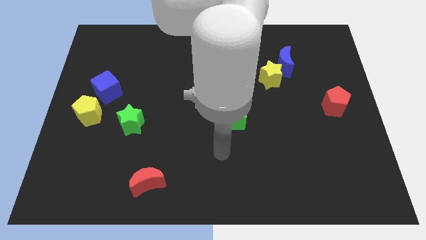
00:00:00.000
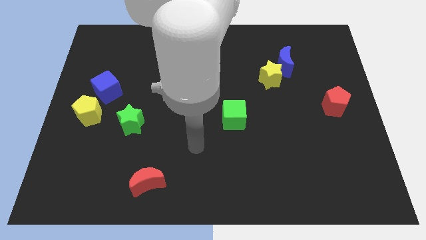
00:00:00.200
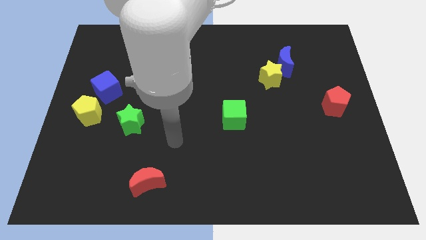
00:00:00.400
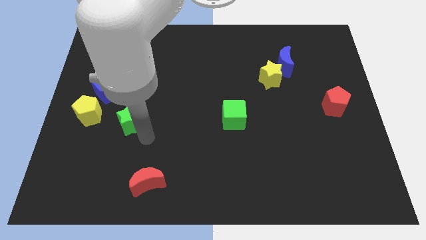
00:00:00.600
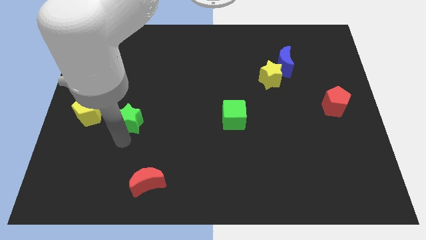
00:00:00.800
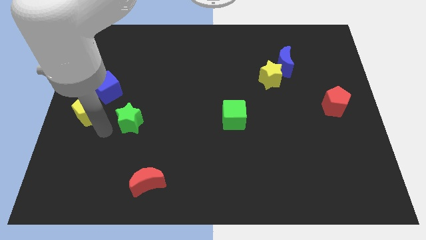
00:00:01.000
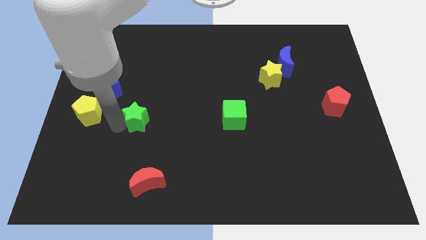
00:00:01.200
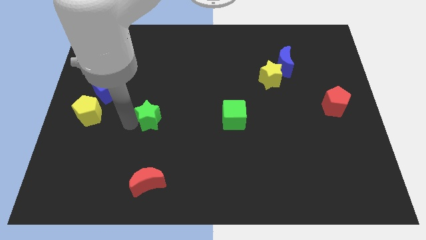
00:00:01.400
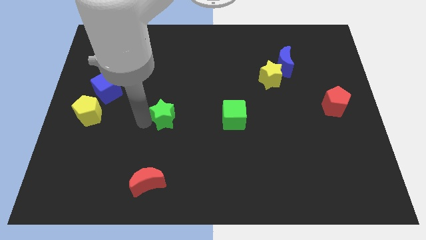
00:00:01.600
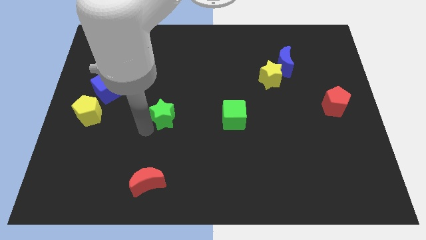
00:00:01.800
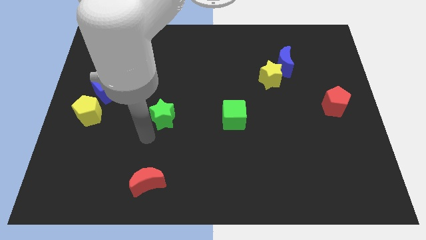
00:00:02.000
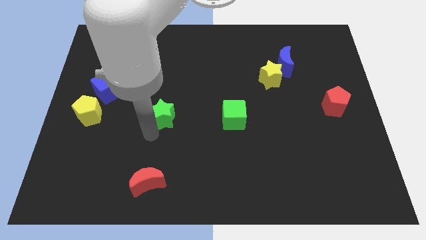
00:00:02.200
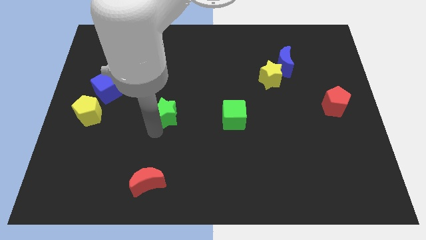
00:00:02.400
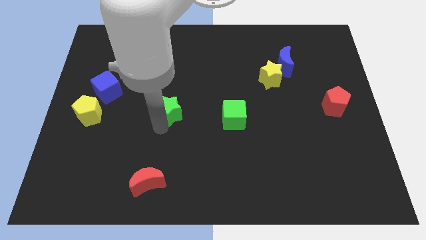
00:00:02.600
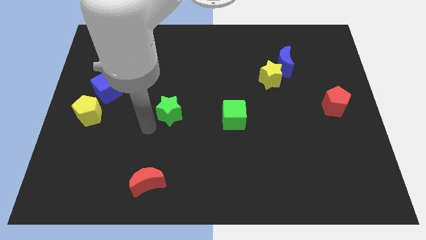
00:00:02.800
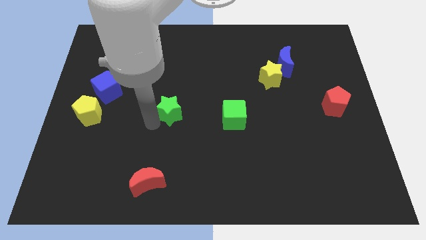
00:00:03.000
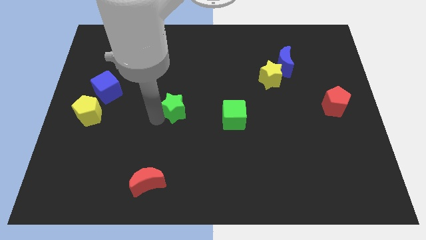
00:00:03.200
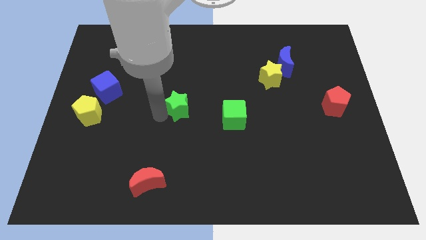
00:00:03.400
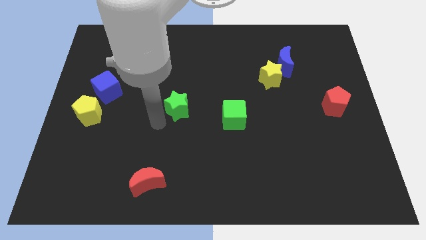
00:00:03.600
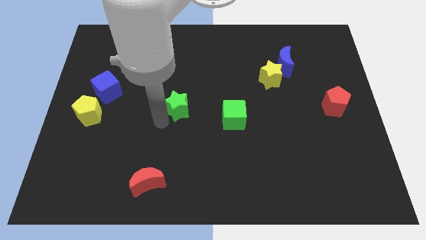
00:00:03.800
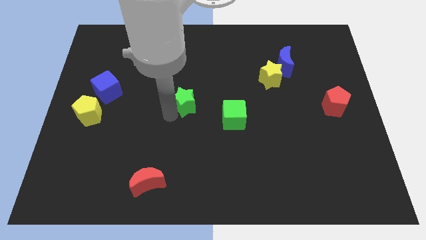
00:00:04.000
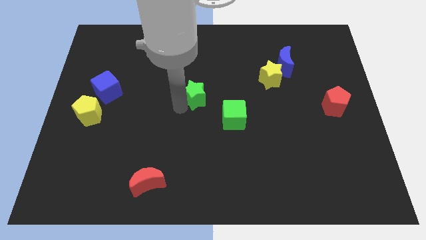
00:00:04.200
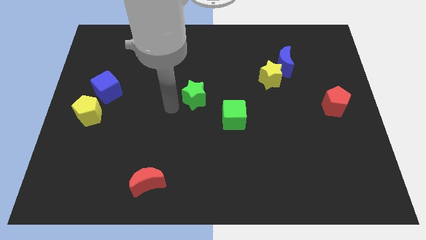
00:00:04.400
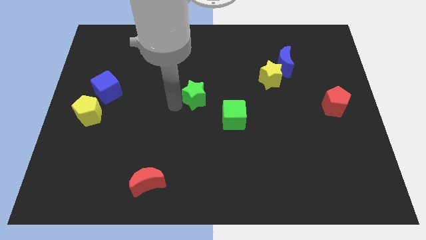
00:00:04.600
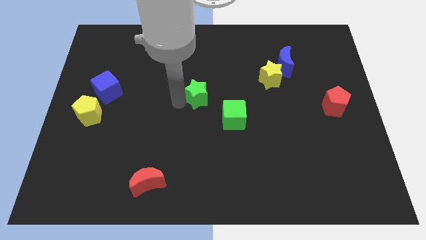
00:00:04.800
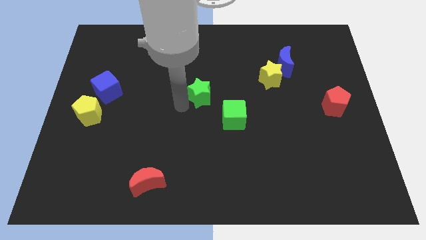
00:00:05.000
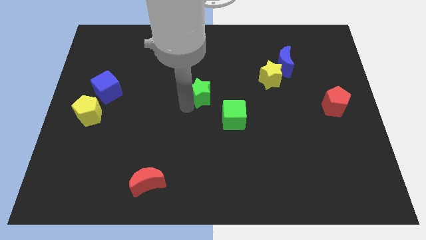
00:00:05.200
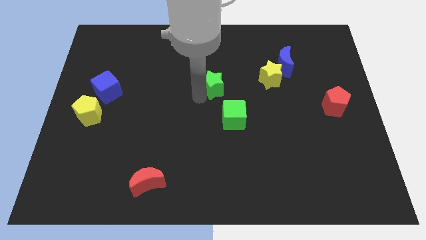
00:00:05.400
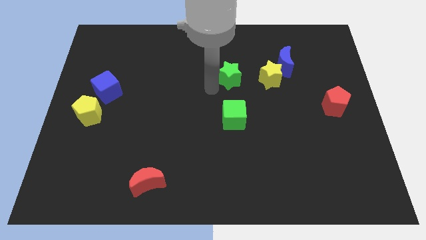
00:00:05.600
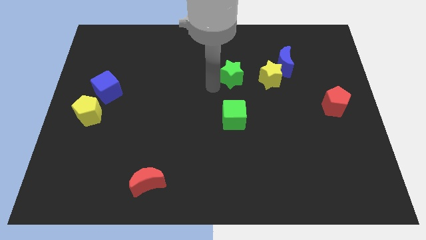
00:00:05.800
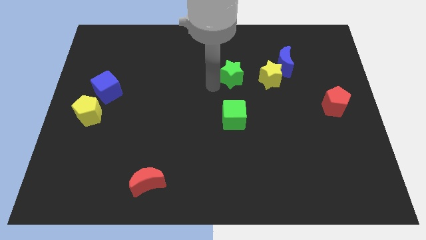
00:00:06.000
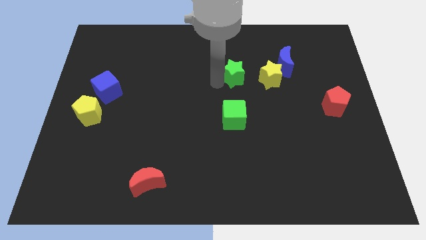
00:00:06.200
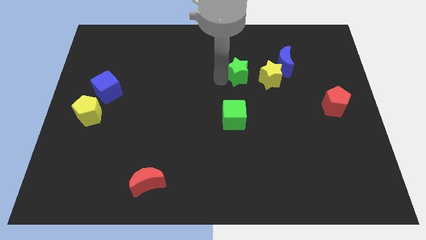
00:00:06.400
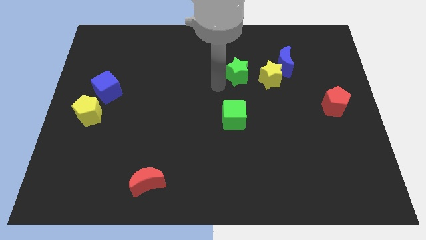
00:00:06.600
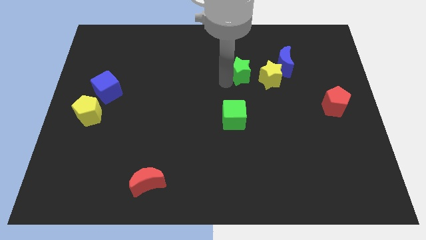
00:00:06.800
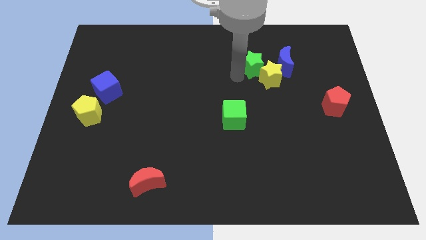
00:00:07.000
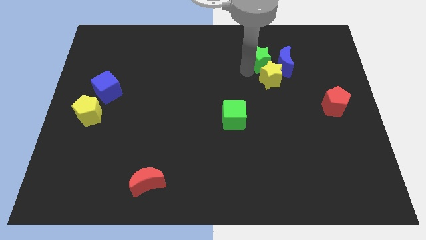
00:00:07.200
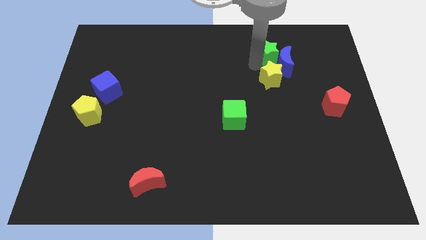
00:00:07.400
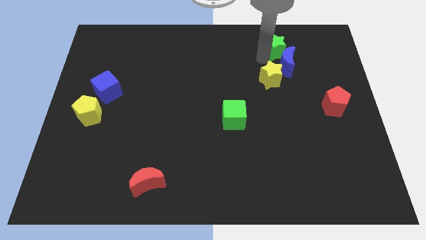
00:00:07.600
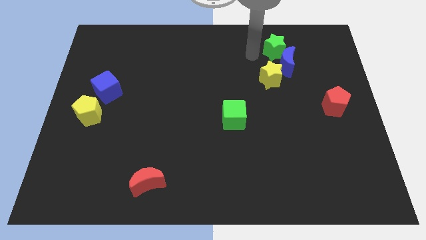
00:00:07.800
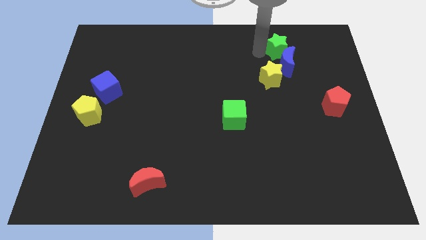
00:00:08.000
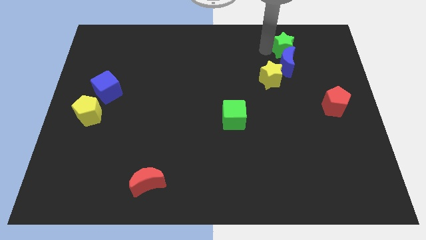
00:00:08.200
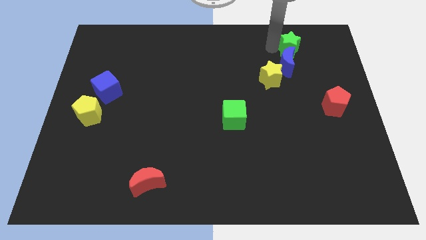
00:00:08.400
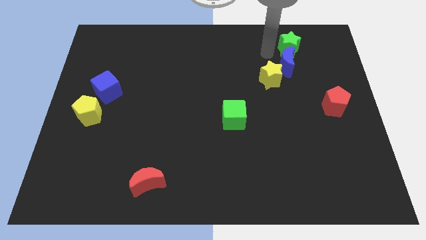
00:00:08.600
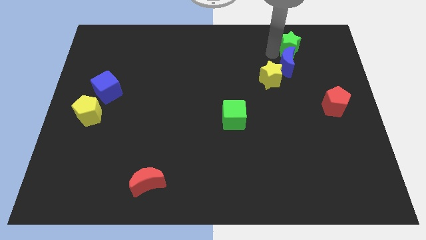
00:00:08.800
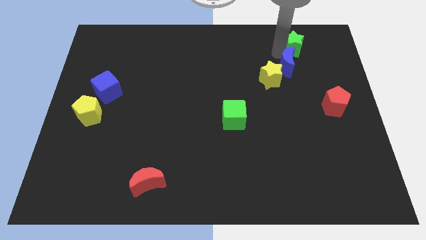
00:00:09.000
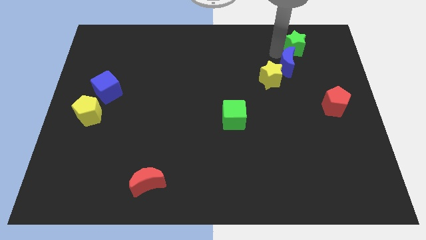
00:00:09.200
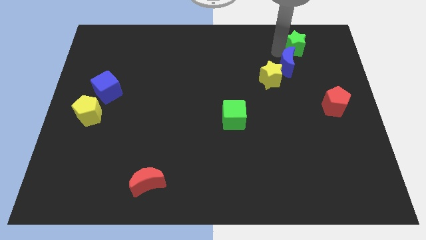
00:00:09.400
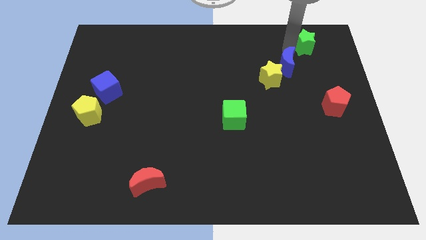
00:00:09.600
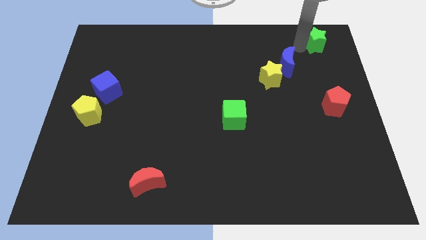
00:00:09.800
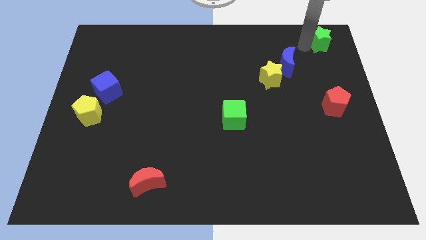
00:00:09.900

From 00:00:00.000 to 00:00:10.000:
move the green star to the upper right corner

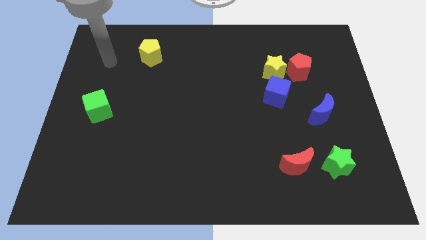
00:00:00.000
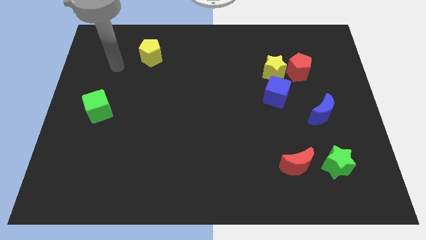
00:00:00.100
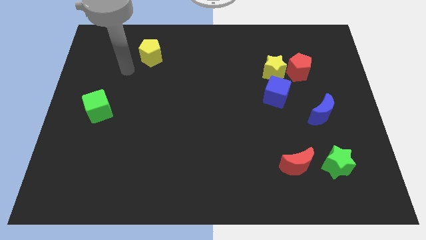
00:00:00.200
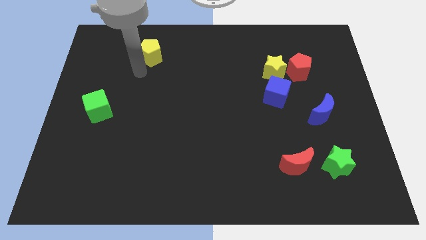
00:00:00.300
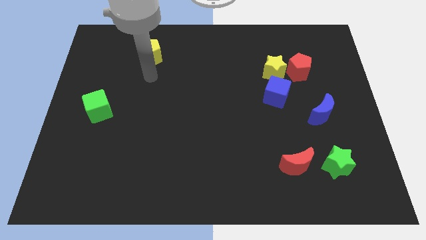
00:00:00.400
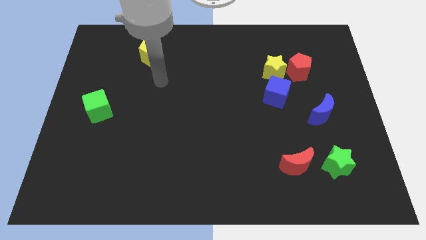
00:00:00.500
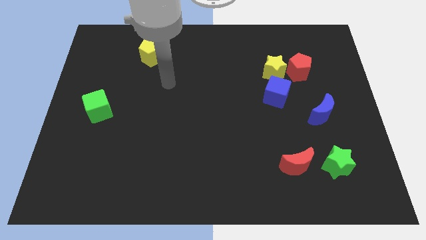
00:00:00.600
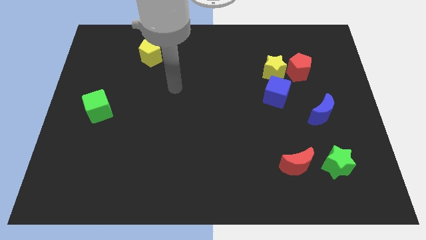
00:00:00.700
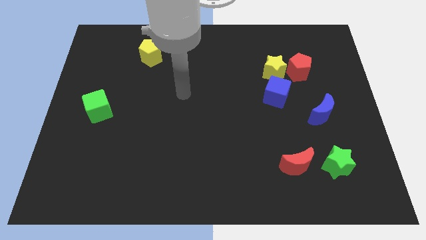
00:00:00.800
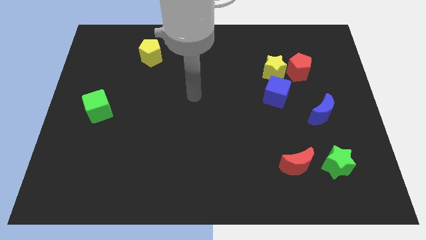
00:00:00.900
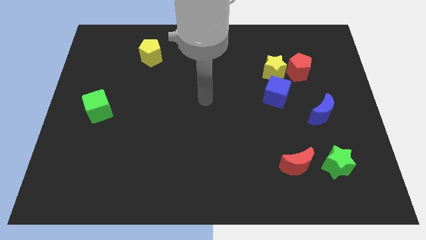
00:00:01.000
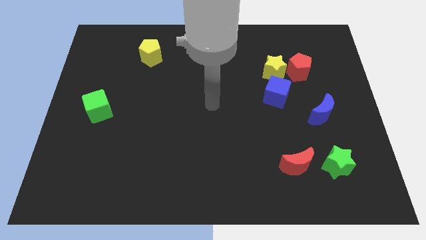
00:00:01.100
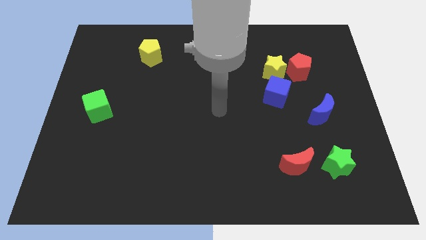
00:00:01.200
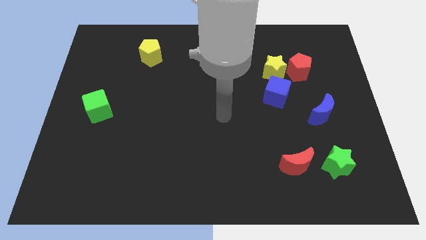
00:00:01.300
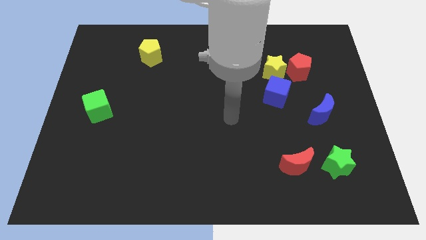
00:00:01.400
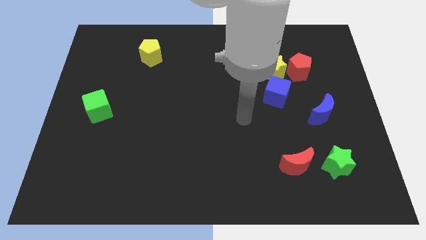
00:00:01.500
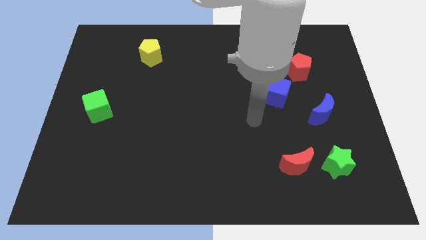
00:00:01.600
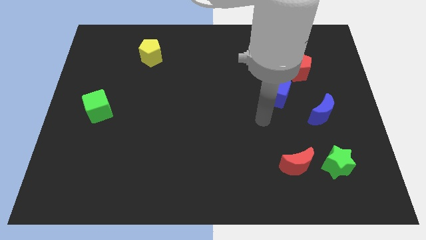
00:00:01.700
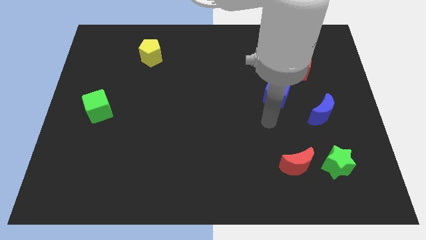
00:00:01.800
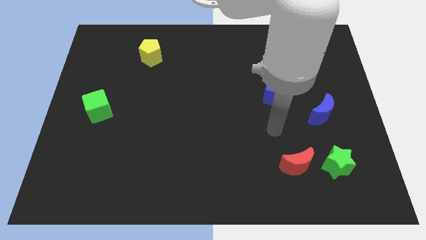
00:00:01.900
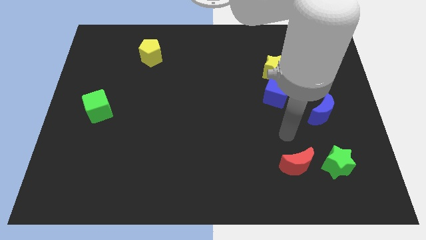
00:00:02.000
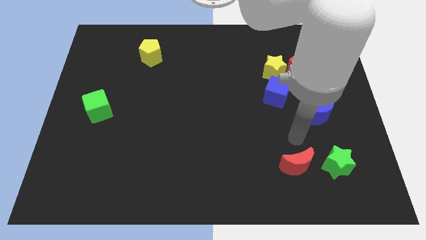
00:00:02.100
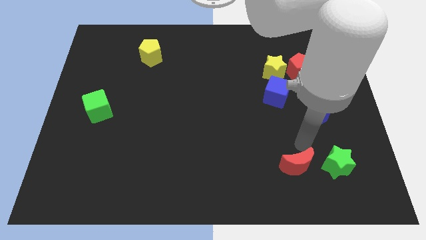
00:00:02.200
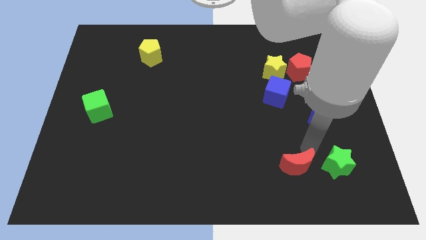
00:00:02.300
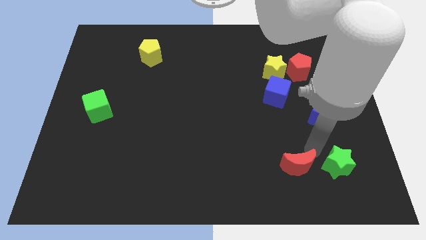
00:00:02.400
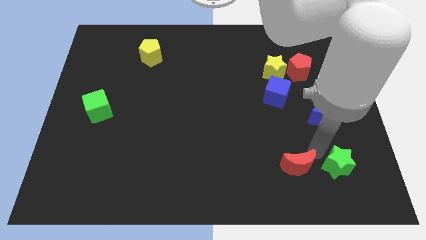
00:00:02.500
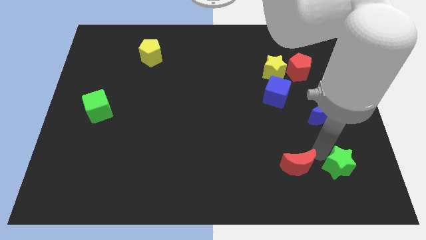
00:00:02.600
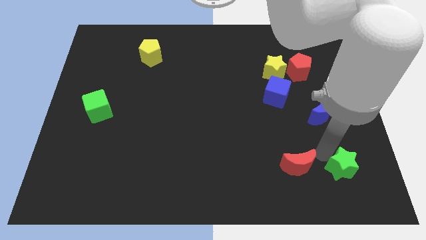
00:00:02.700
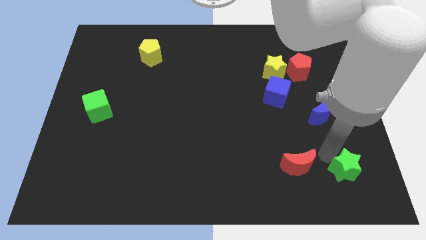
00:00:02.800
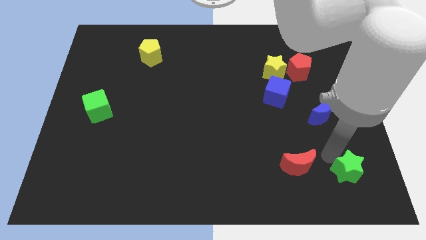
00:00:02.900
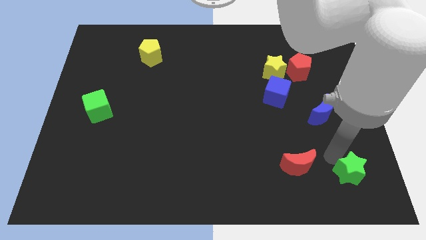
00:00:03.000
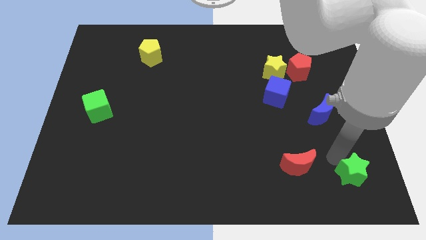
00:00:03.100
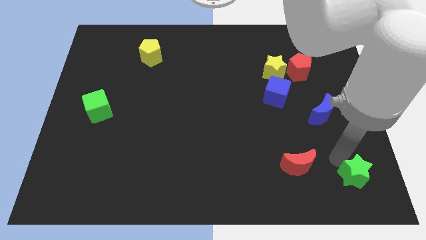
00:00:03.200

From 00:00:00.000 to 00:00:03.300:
put the green star to the bottom right corner
